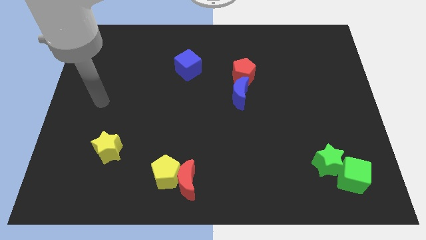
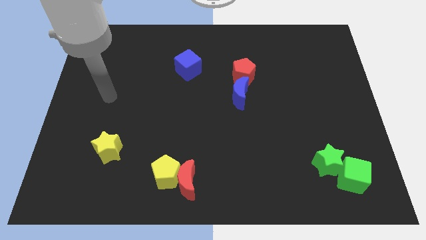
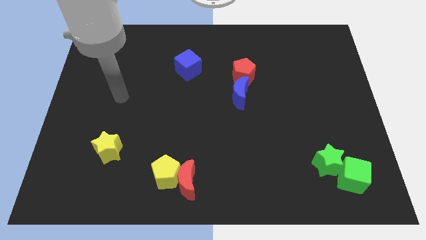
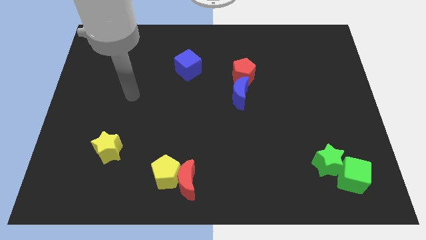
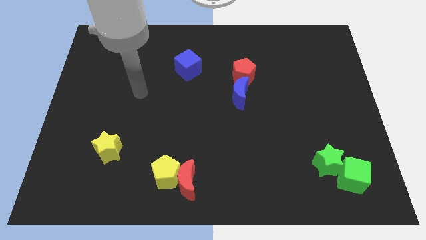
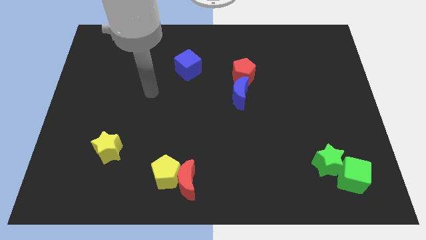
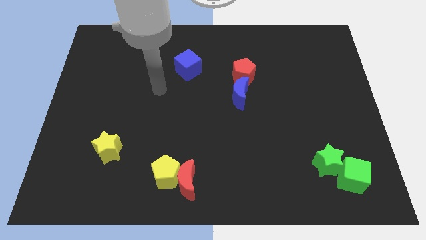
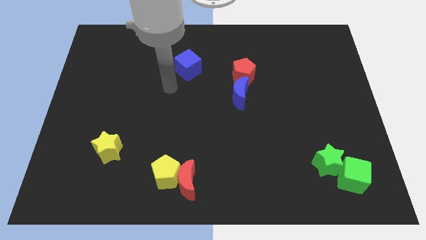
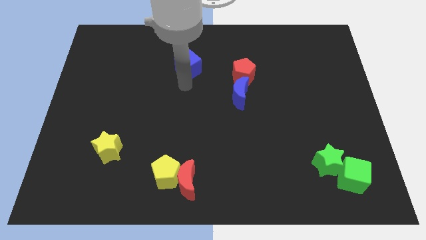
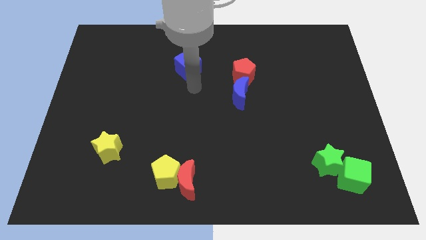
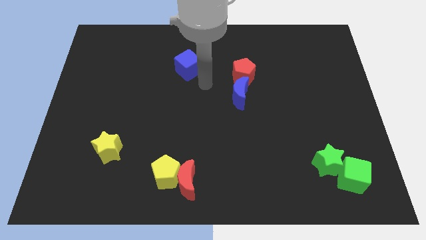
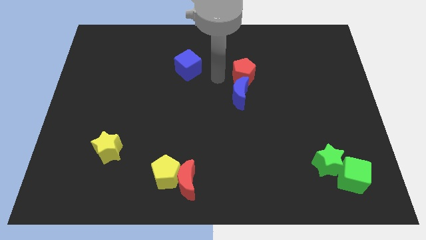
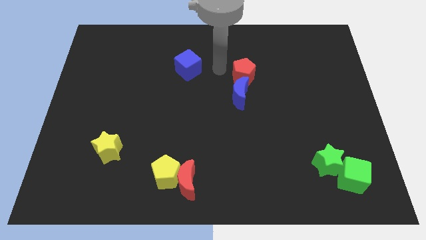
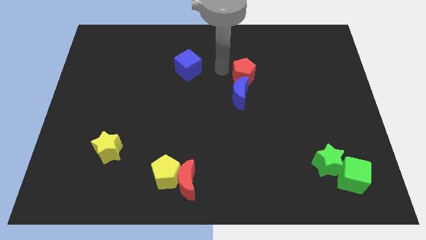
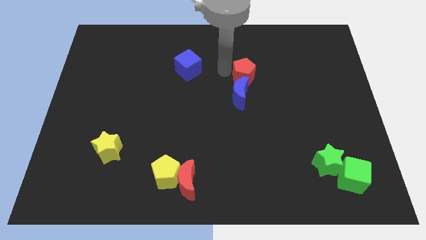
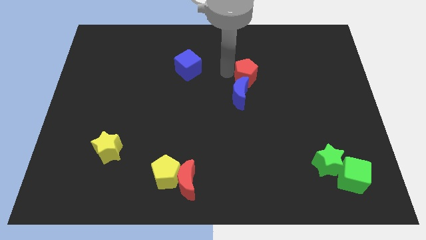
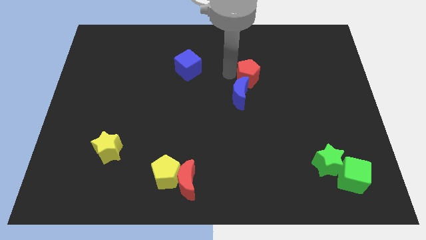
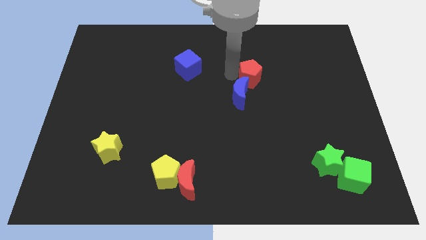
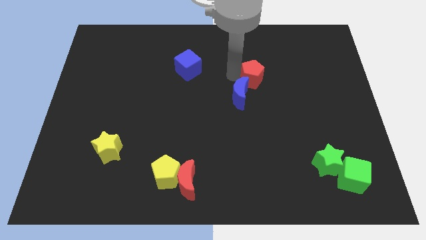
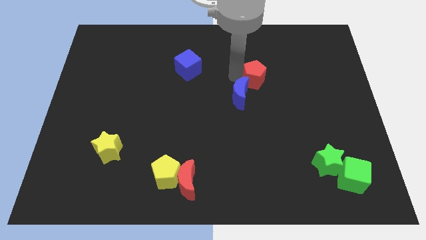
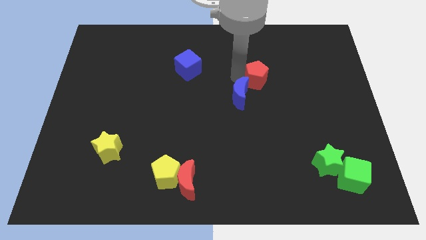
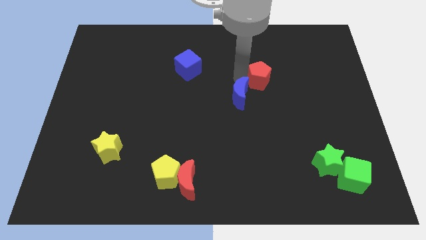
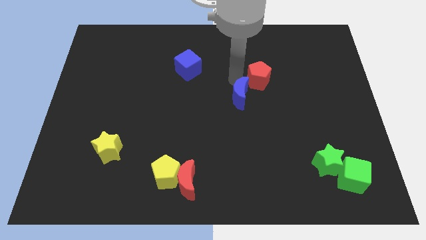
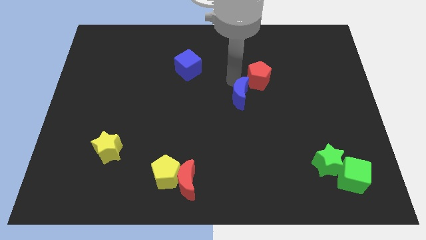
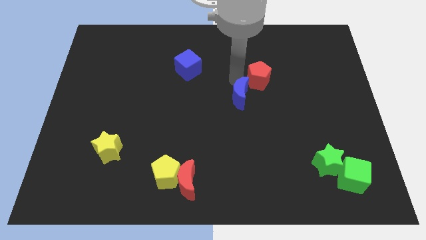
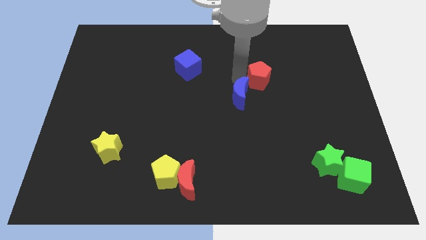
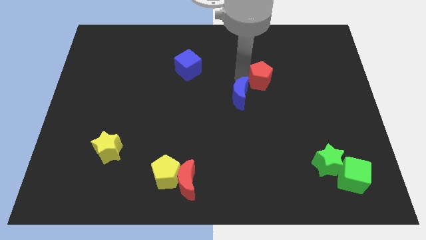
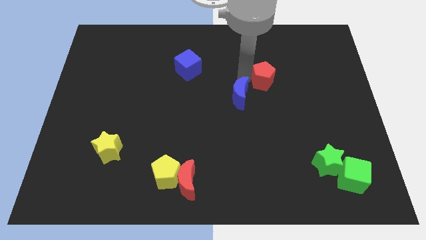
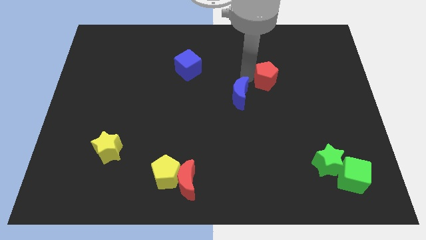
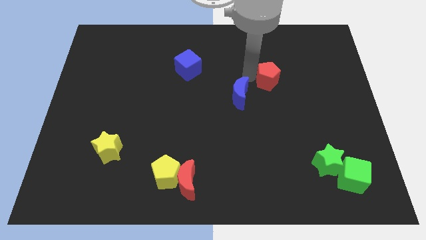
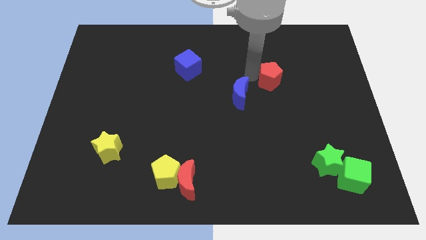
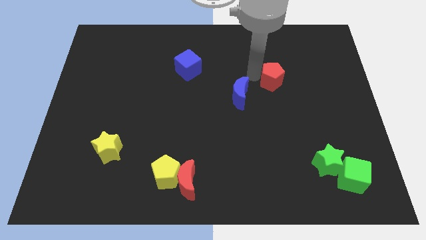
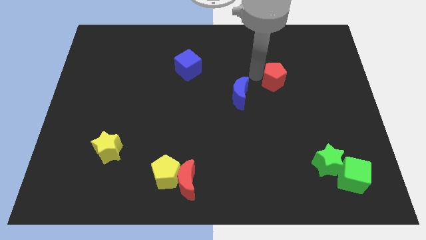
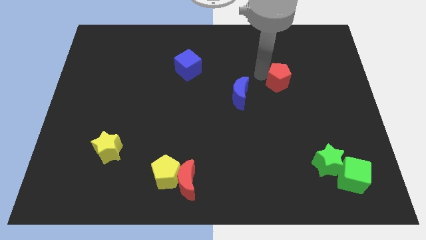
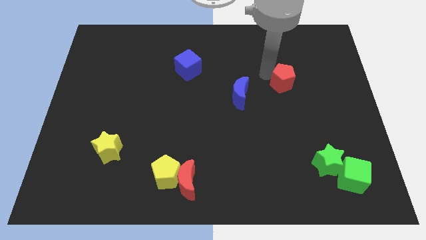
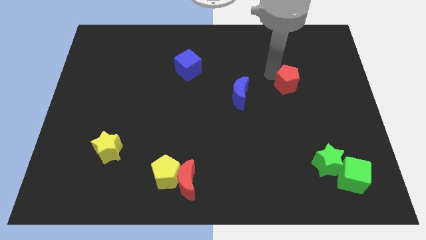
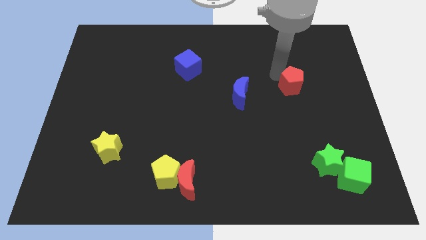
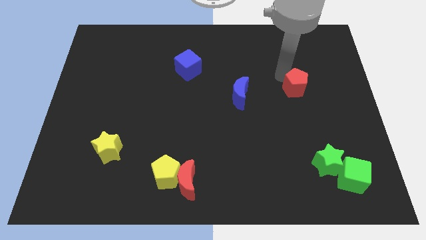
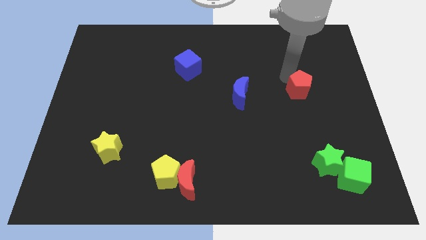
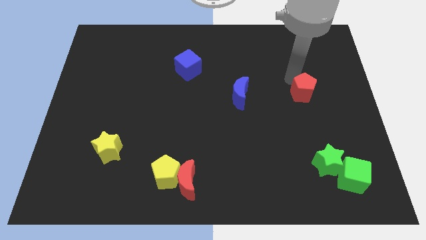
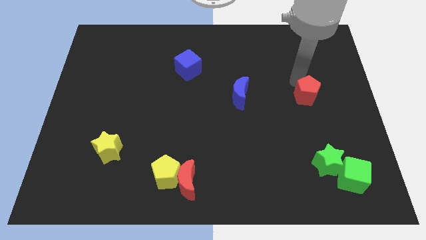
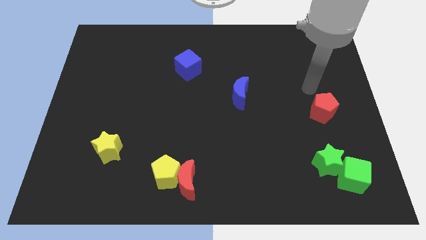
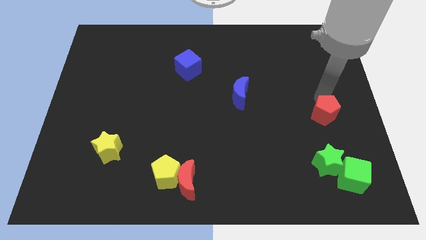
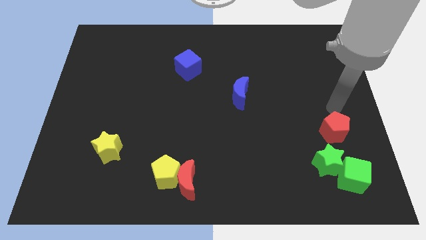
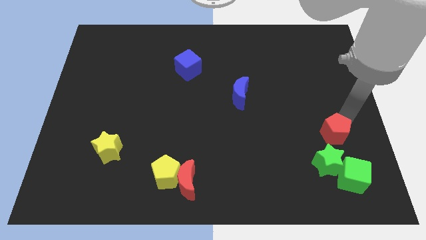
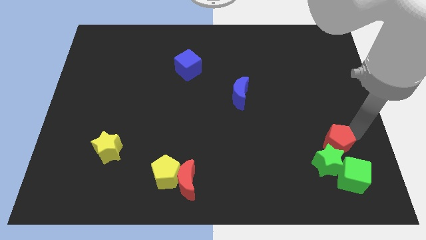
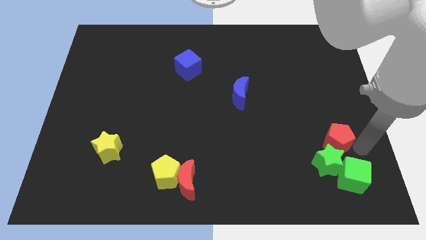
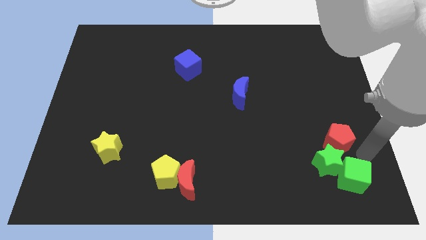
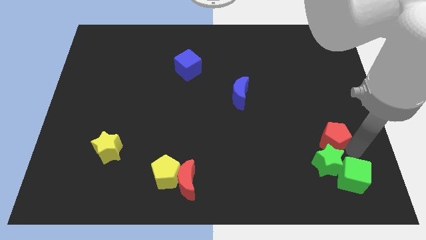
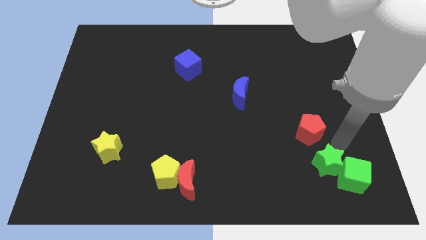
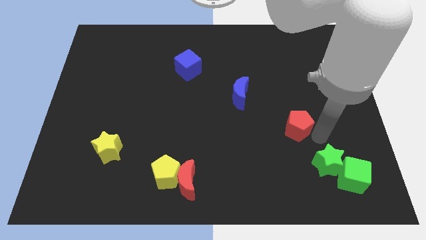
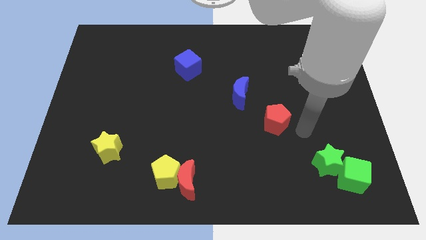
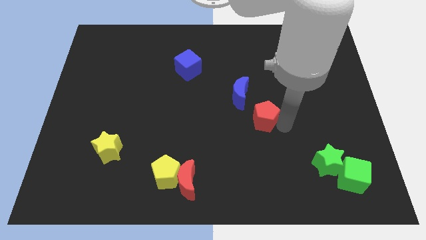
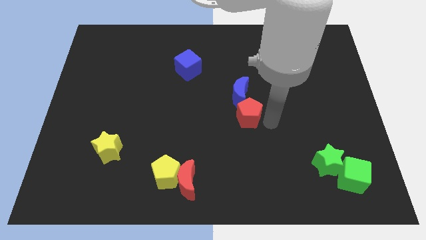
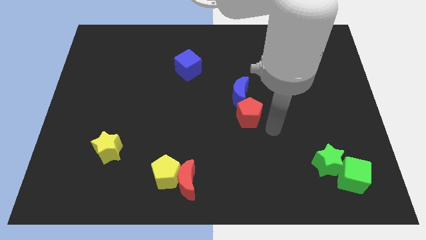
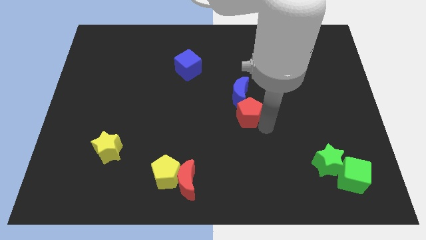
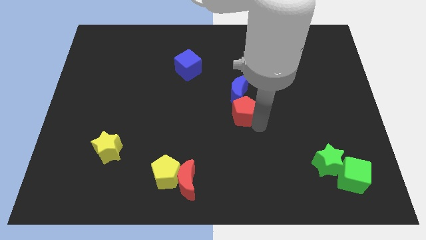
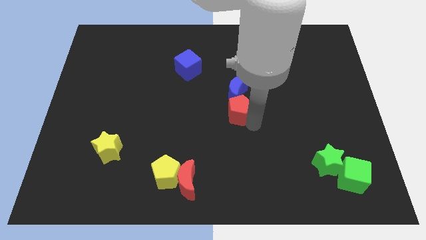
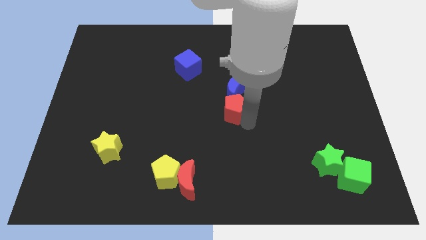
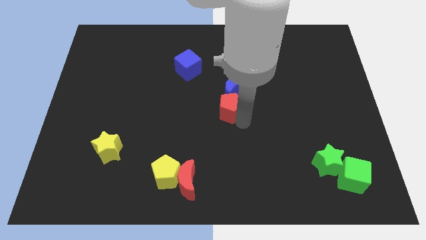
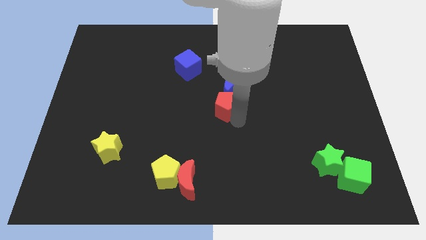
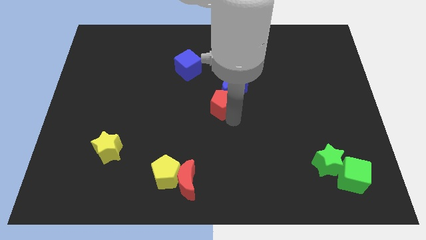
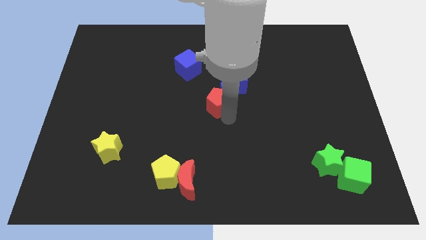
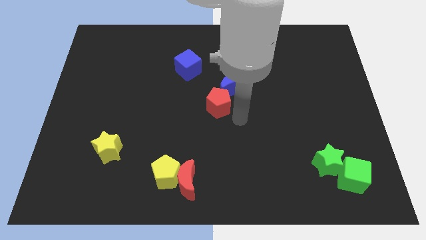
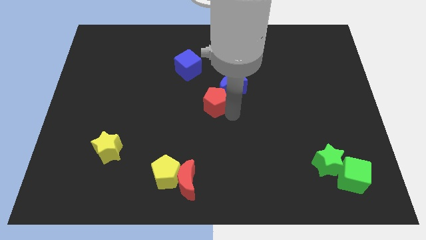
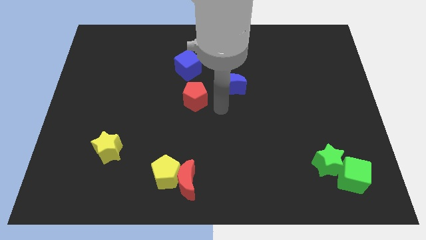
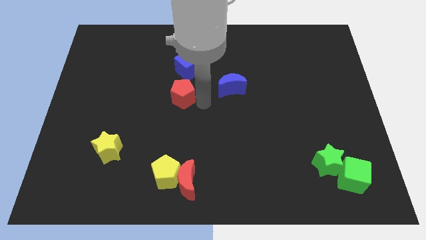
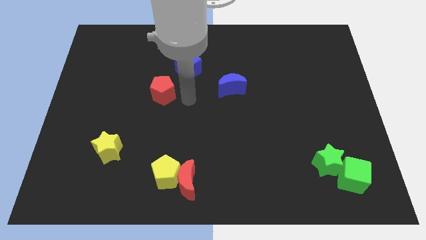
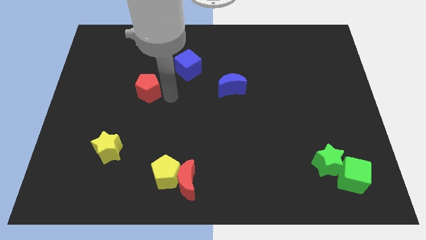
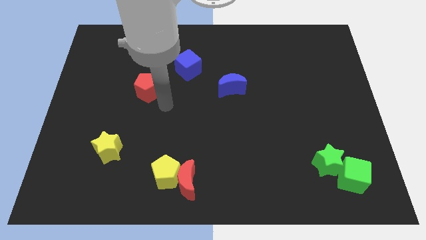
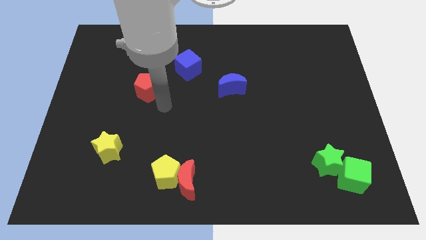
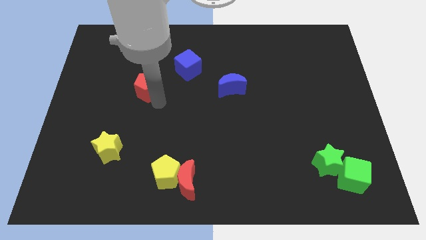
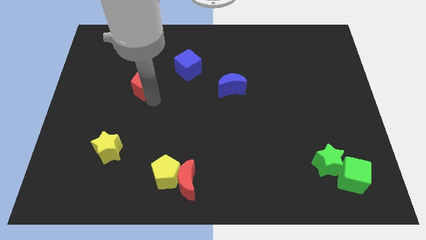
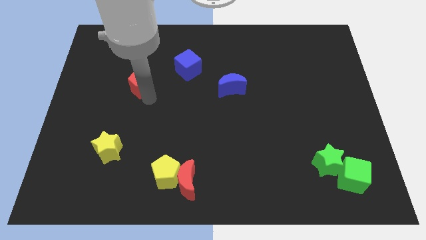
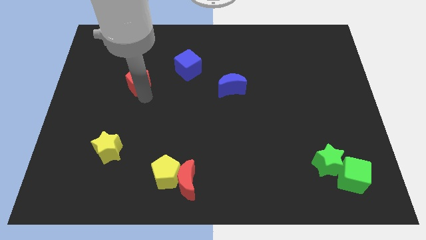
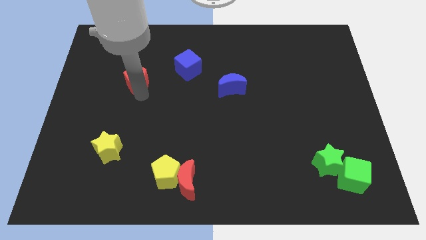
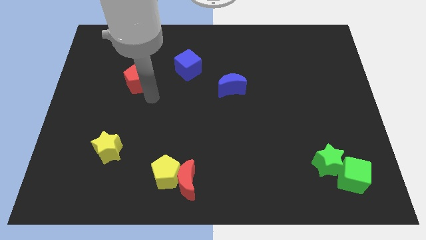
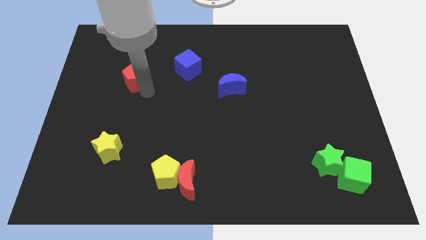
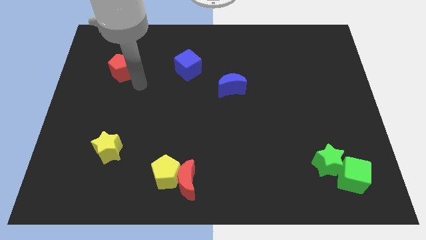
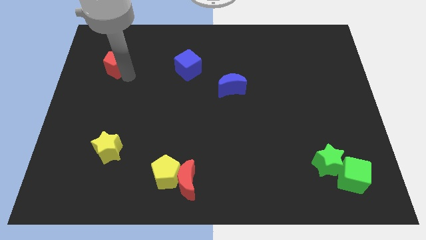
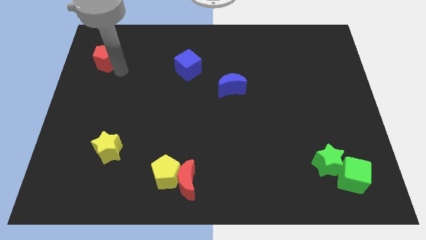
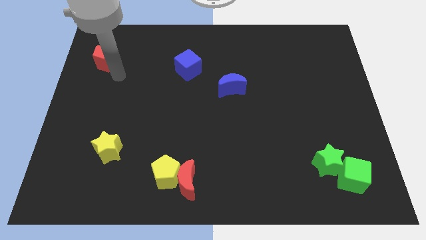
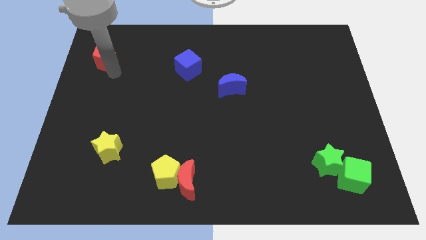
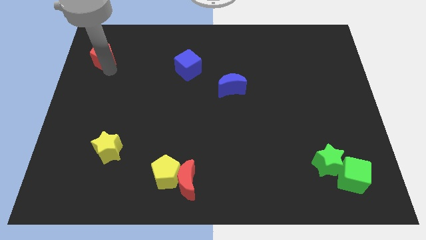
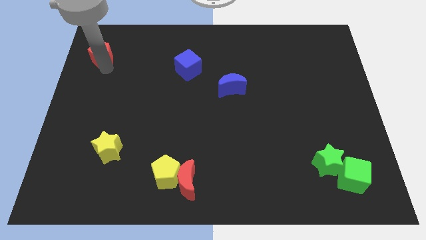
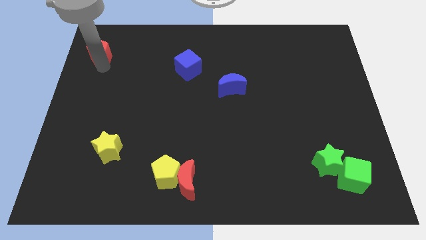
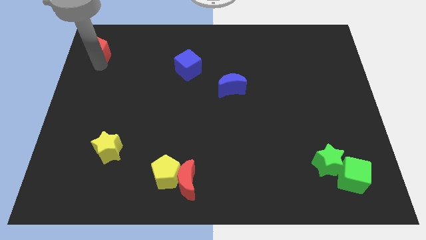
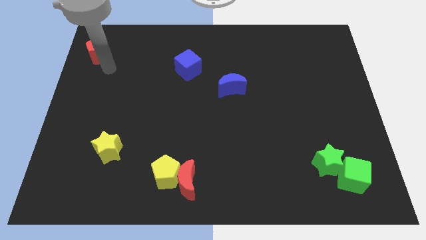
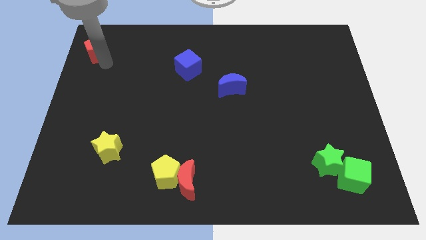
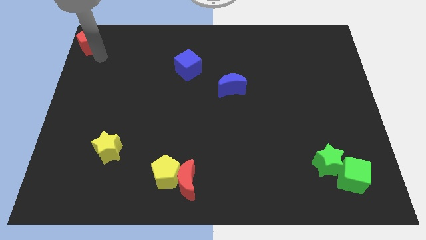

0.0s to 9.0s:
move the red pentagon to the upper left corner
